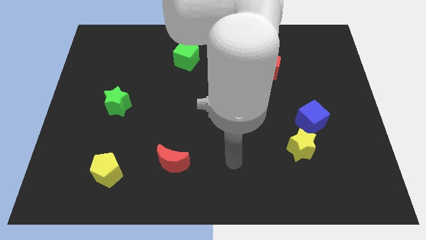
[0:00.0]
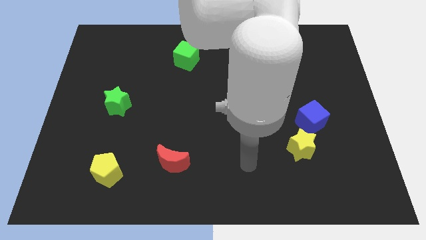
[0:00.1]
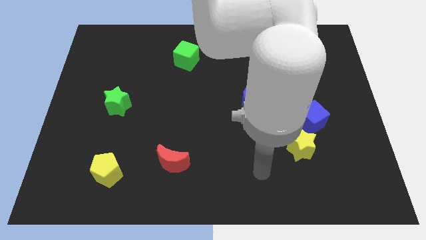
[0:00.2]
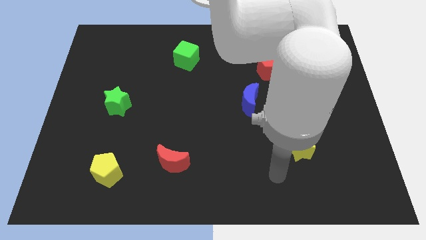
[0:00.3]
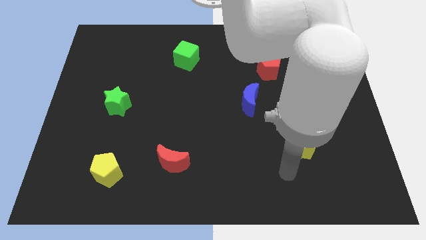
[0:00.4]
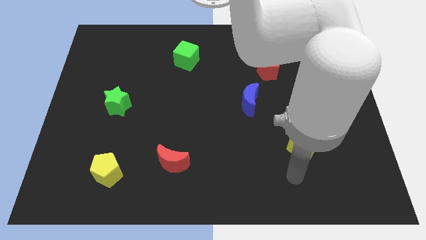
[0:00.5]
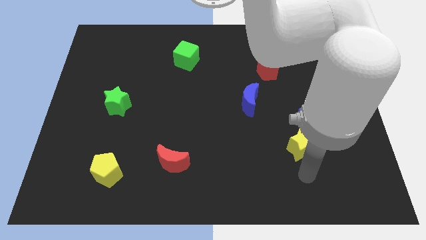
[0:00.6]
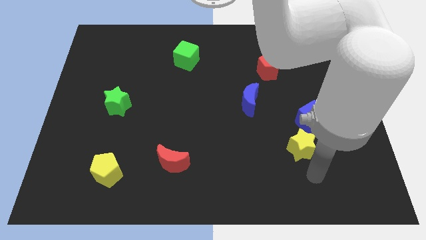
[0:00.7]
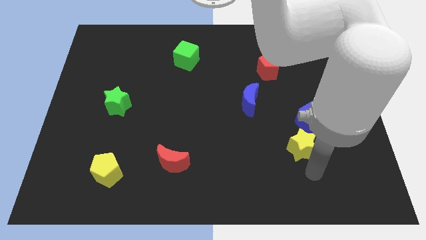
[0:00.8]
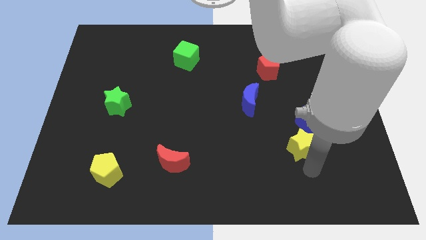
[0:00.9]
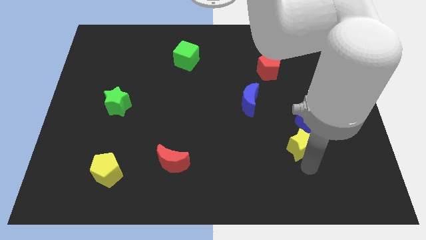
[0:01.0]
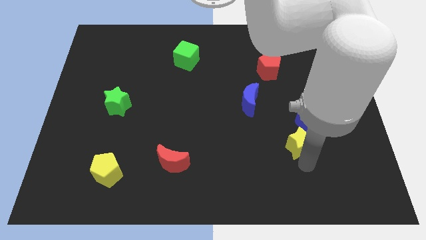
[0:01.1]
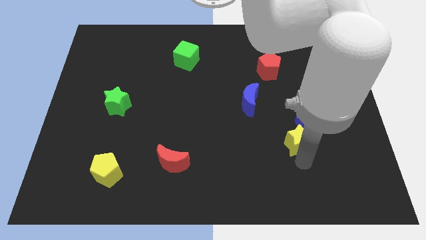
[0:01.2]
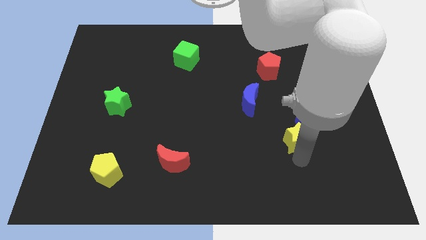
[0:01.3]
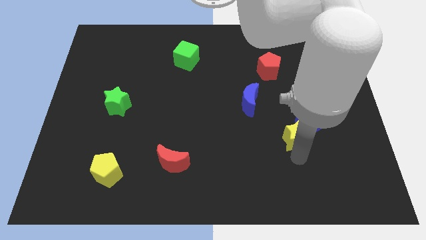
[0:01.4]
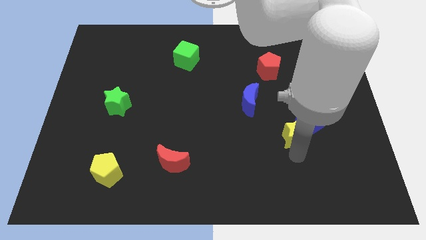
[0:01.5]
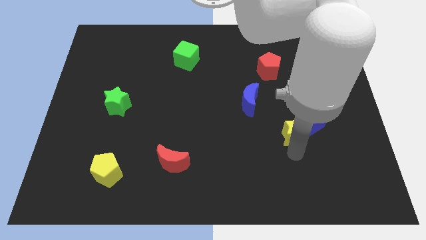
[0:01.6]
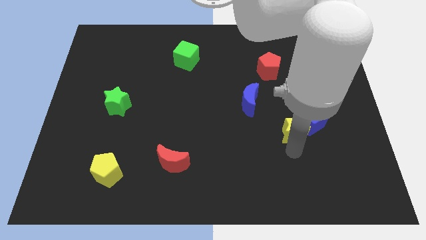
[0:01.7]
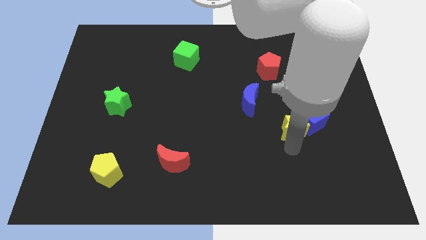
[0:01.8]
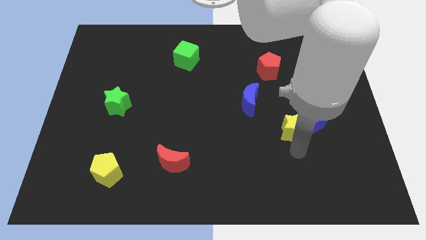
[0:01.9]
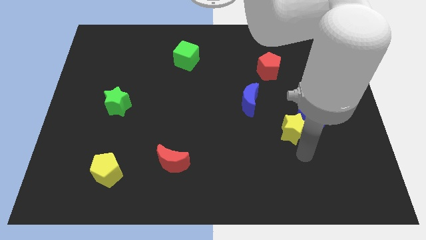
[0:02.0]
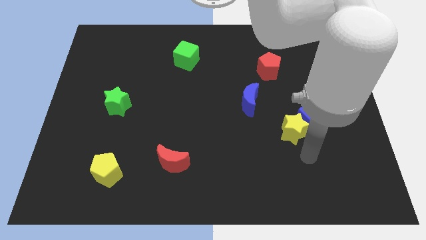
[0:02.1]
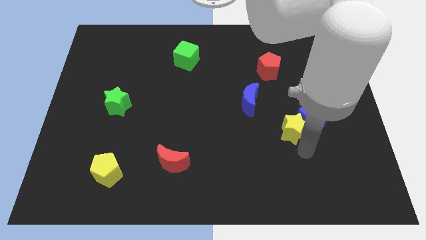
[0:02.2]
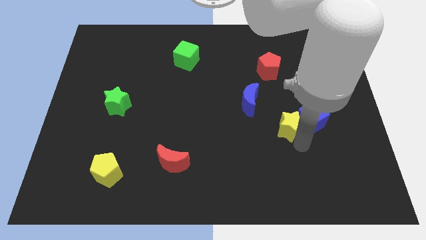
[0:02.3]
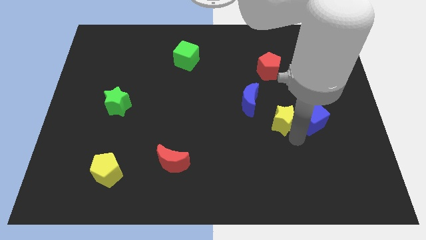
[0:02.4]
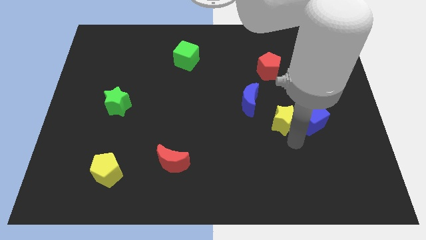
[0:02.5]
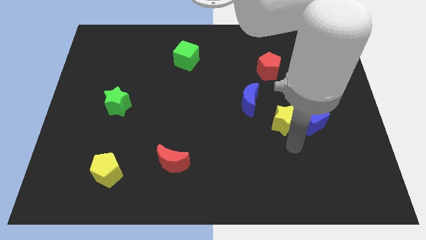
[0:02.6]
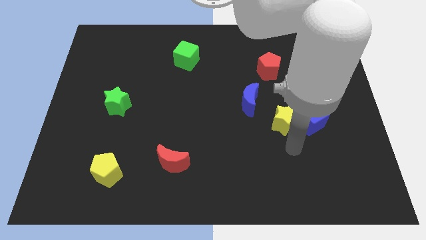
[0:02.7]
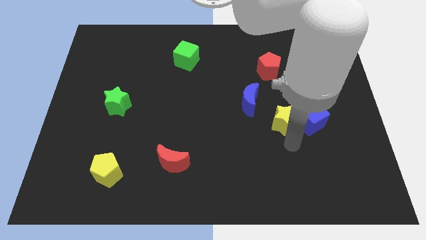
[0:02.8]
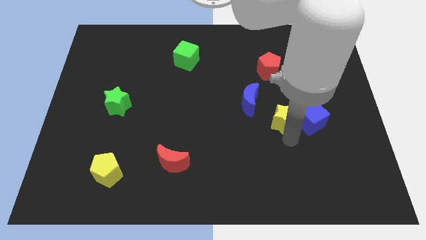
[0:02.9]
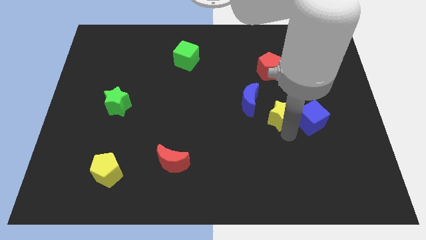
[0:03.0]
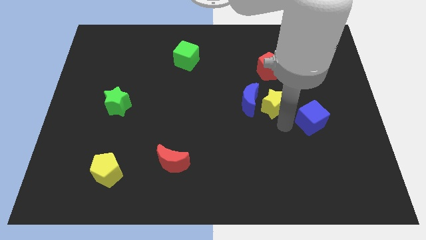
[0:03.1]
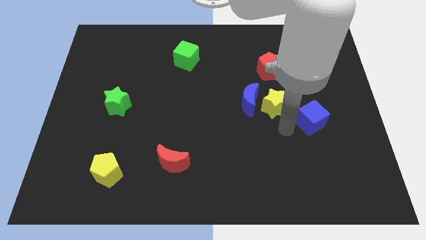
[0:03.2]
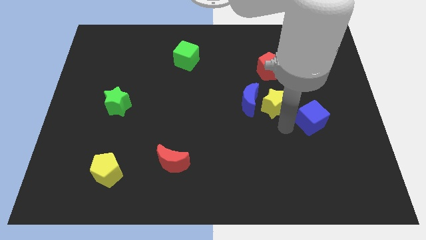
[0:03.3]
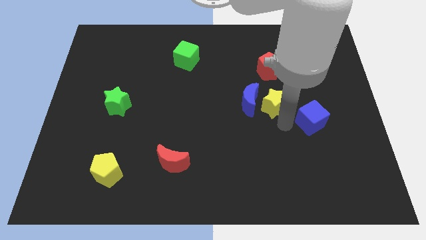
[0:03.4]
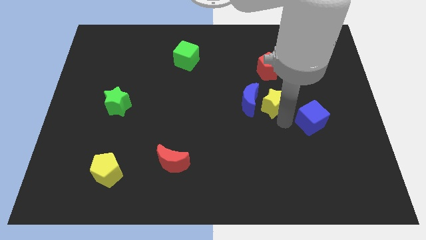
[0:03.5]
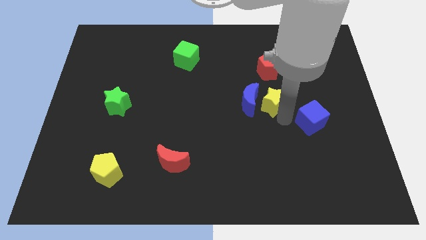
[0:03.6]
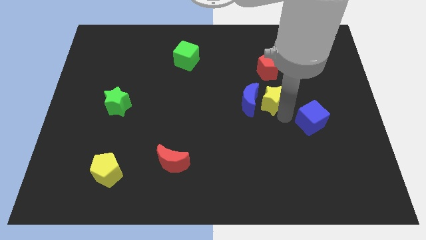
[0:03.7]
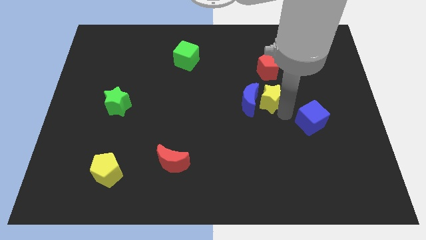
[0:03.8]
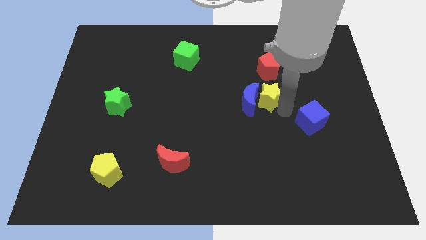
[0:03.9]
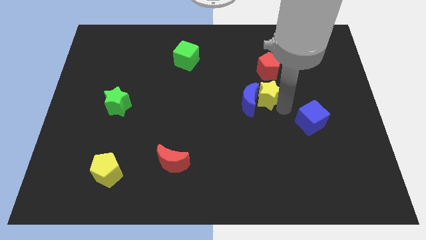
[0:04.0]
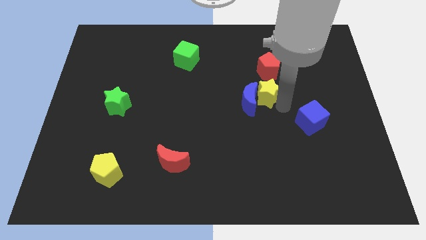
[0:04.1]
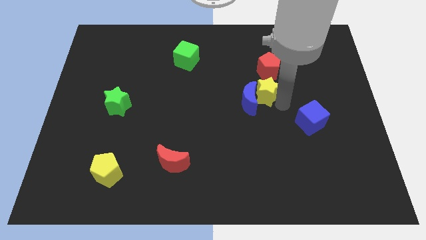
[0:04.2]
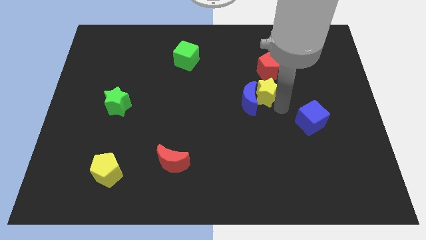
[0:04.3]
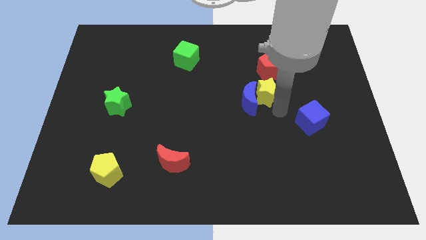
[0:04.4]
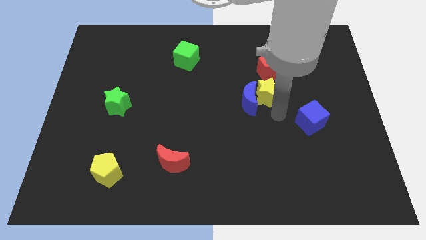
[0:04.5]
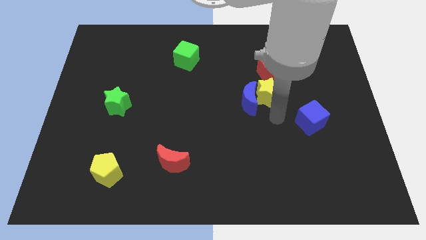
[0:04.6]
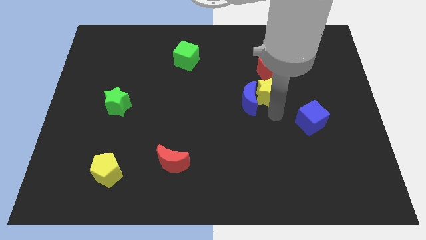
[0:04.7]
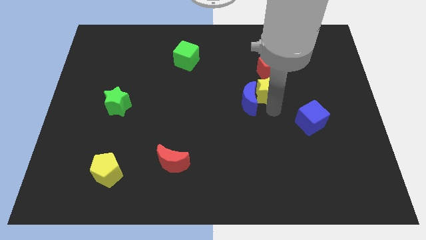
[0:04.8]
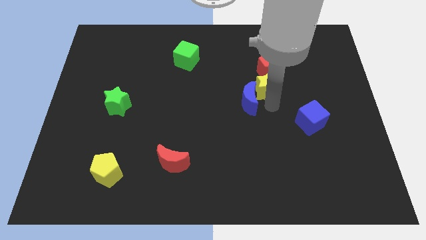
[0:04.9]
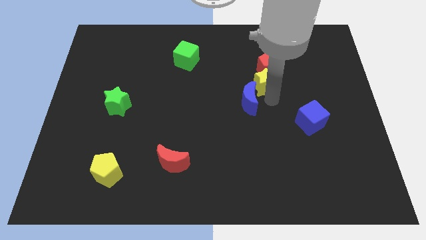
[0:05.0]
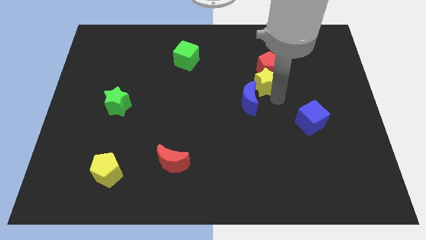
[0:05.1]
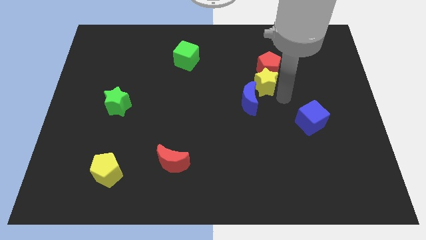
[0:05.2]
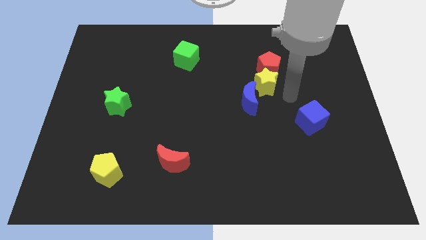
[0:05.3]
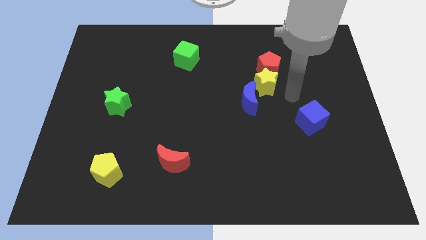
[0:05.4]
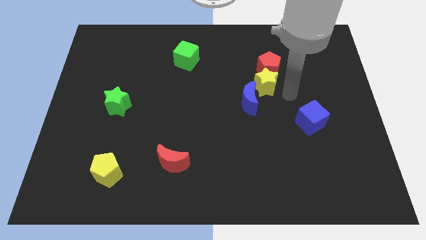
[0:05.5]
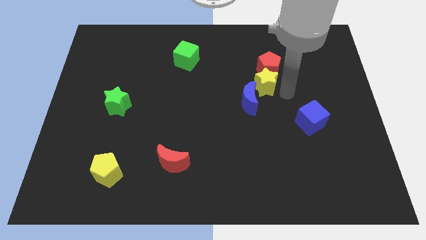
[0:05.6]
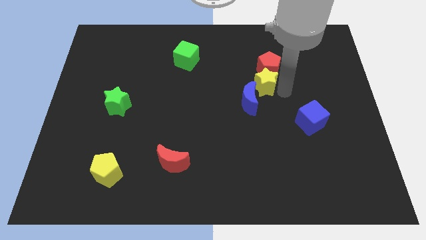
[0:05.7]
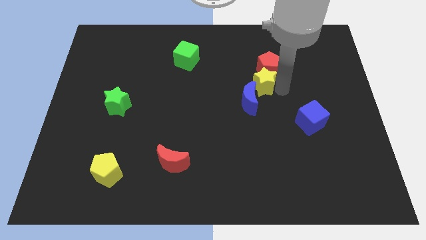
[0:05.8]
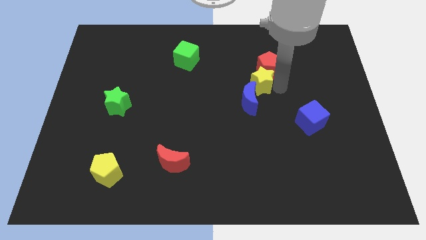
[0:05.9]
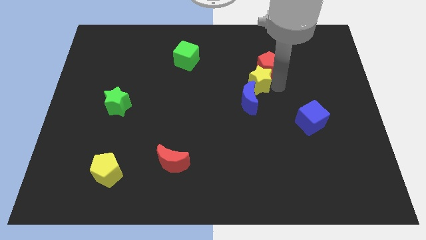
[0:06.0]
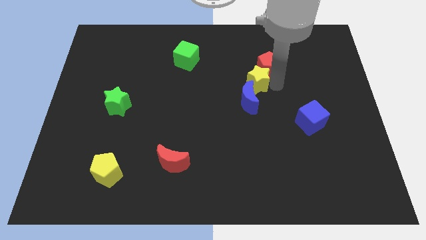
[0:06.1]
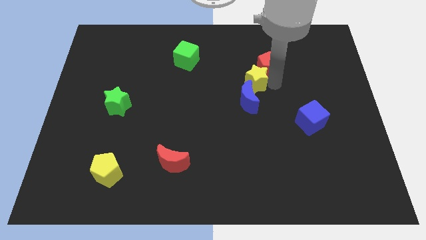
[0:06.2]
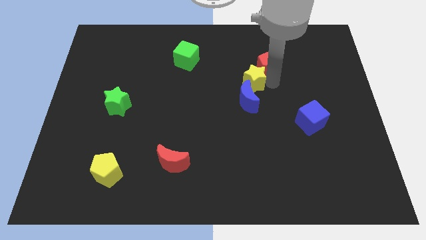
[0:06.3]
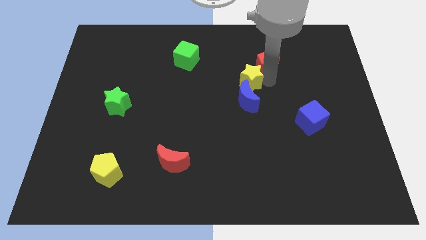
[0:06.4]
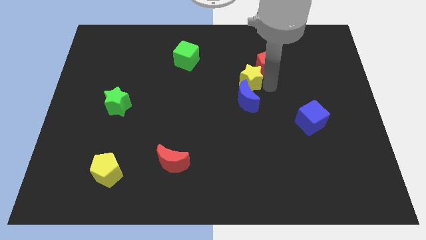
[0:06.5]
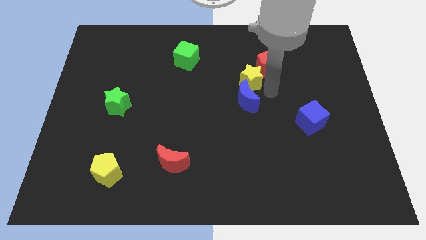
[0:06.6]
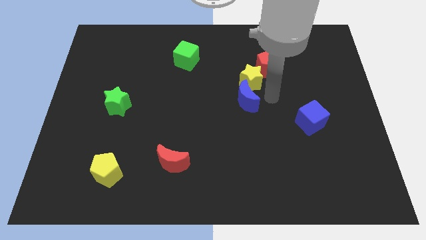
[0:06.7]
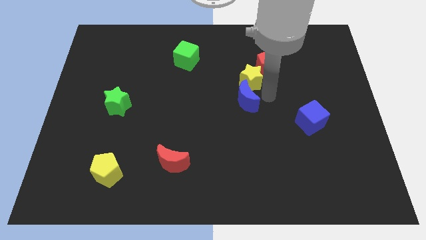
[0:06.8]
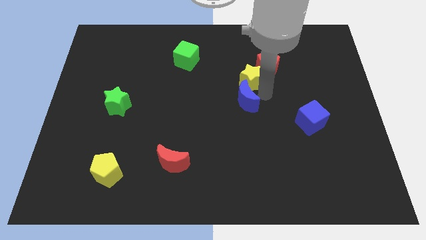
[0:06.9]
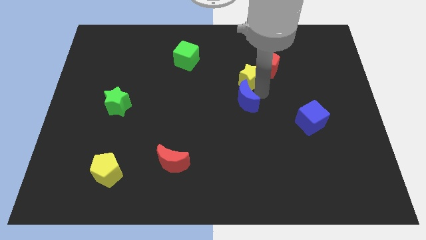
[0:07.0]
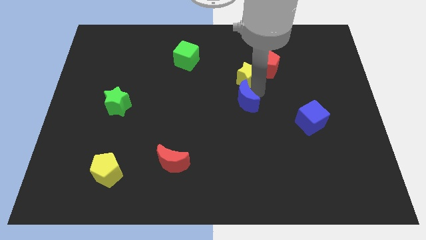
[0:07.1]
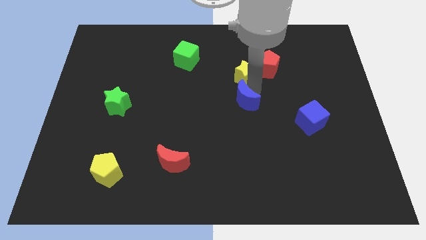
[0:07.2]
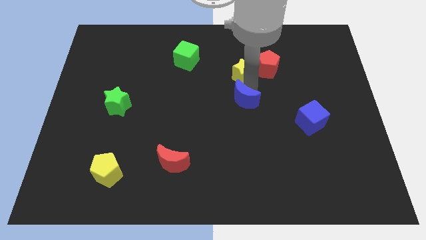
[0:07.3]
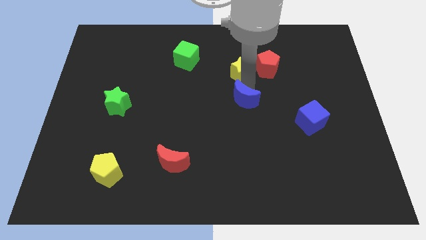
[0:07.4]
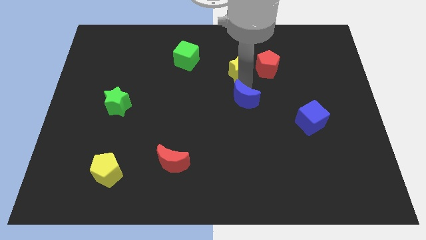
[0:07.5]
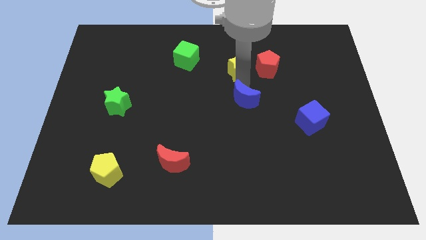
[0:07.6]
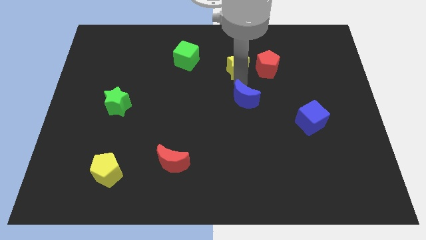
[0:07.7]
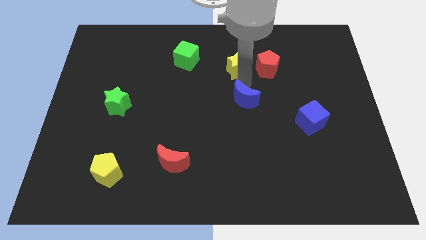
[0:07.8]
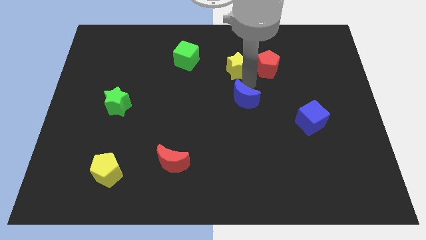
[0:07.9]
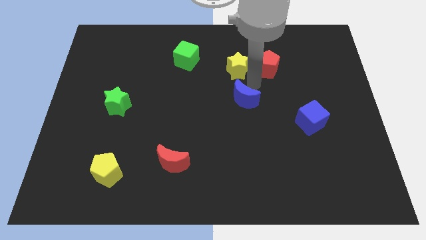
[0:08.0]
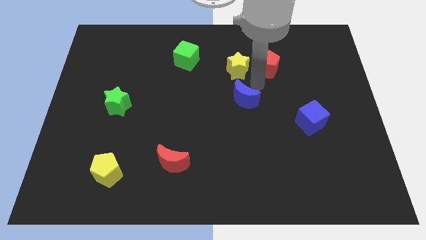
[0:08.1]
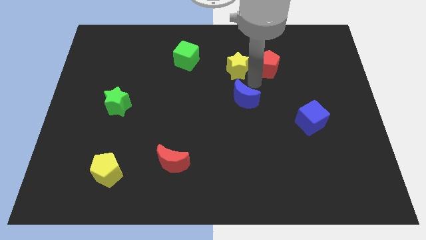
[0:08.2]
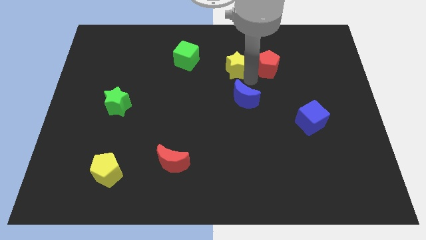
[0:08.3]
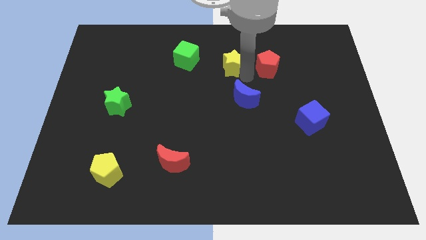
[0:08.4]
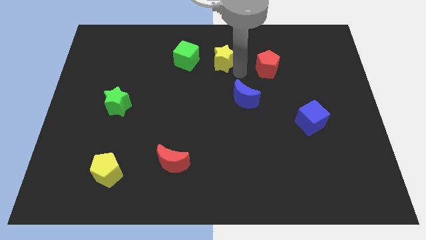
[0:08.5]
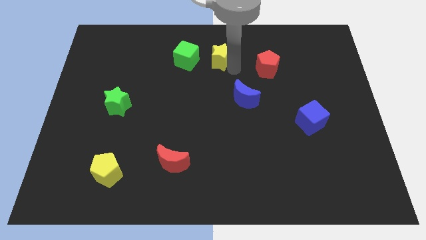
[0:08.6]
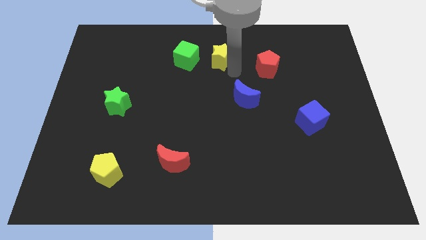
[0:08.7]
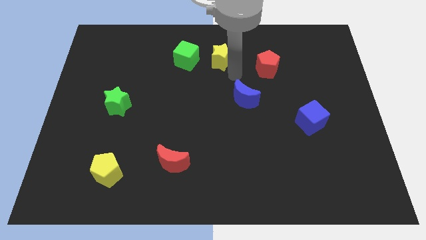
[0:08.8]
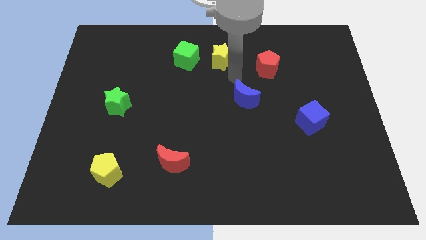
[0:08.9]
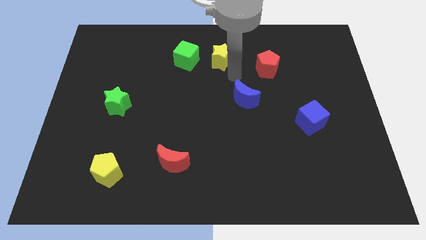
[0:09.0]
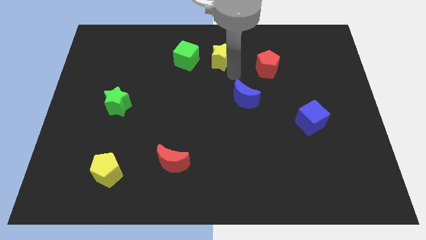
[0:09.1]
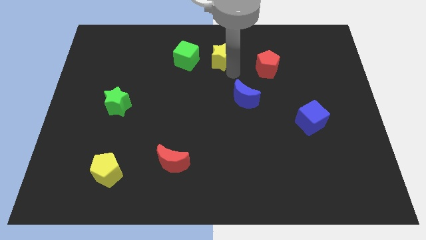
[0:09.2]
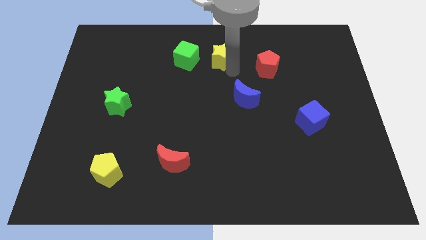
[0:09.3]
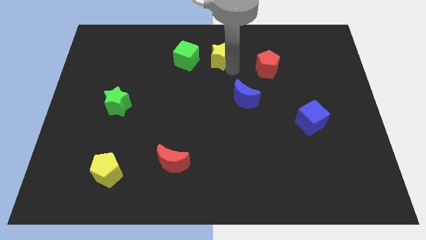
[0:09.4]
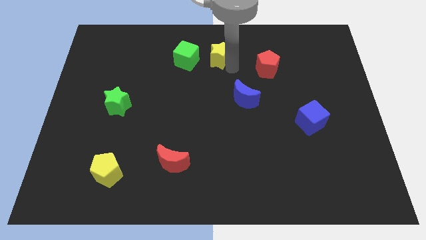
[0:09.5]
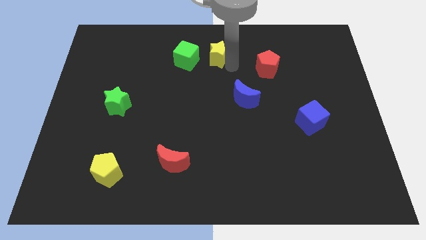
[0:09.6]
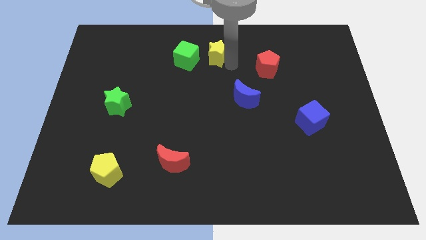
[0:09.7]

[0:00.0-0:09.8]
move the yellow star to the top side
